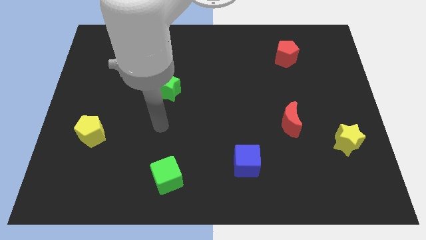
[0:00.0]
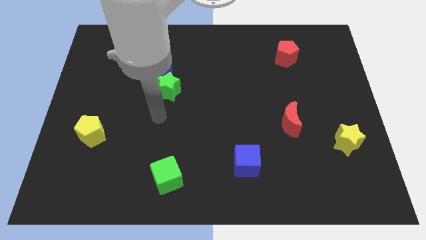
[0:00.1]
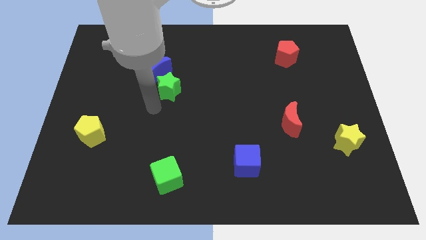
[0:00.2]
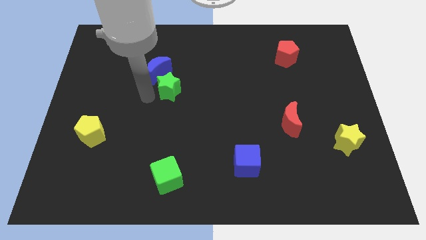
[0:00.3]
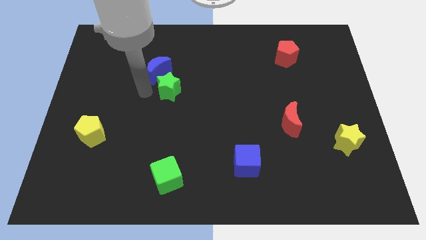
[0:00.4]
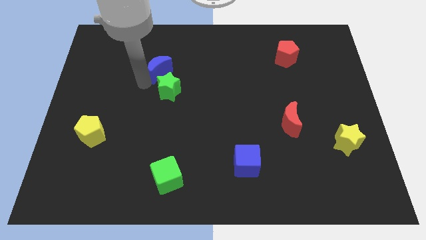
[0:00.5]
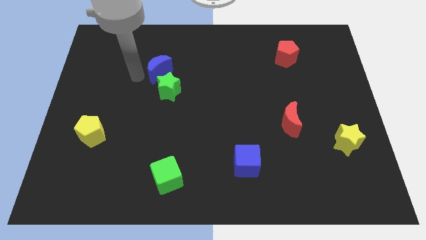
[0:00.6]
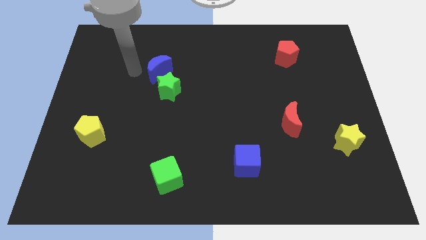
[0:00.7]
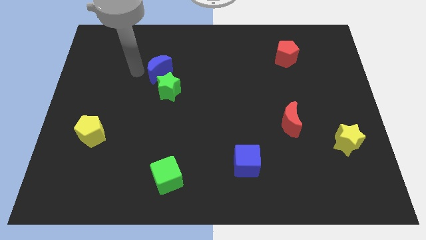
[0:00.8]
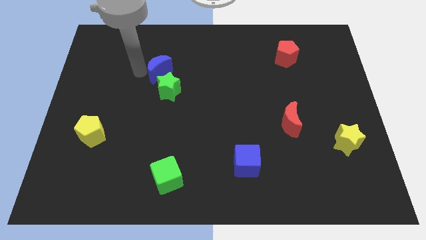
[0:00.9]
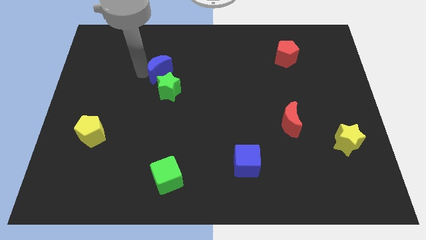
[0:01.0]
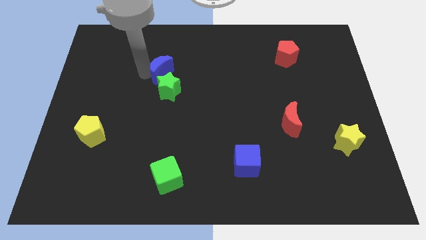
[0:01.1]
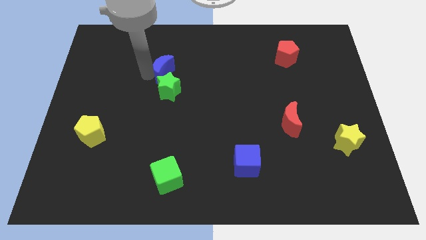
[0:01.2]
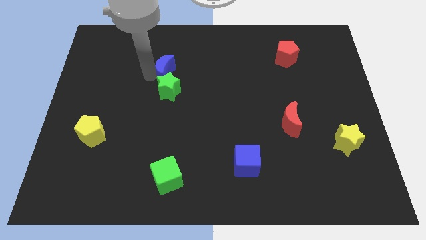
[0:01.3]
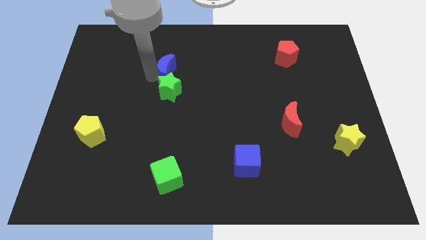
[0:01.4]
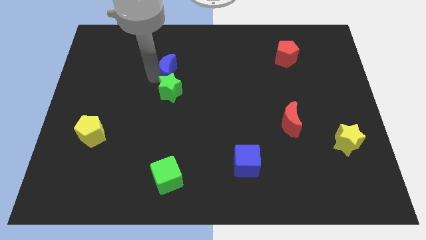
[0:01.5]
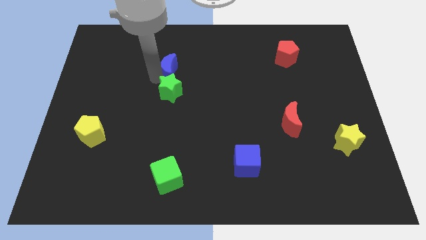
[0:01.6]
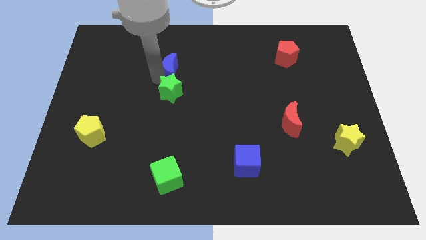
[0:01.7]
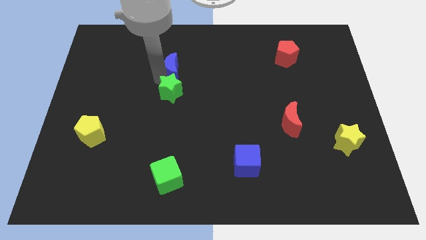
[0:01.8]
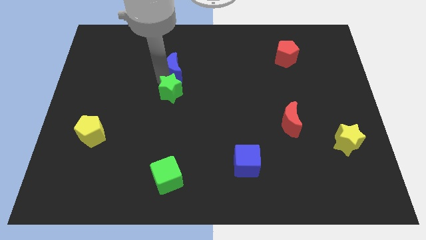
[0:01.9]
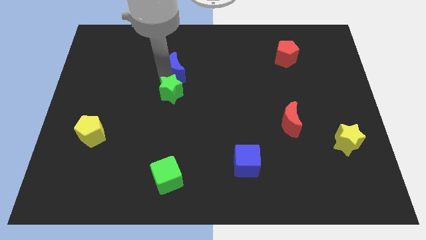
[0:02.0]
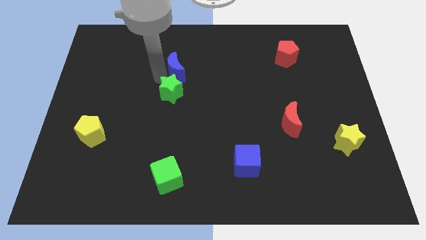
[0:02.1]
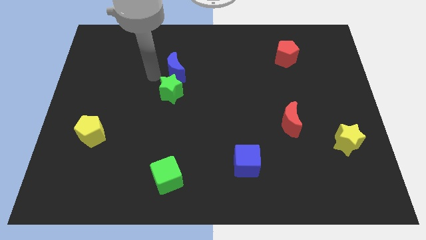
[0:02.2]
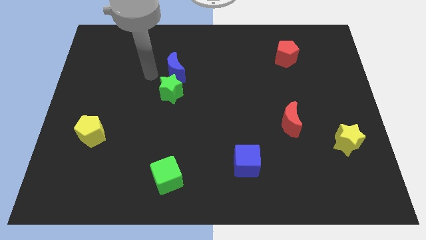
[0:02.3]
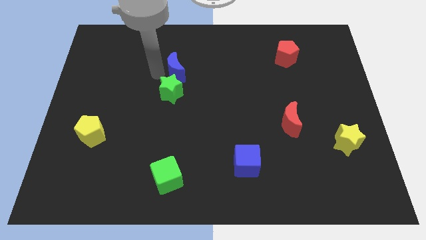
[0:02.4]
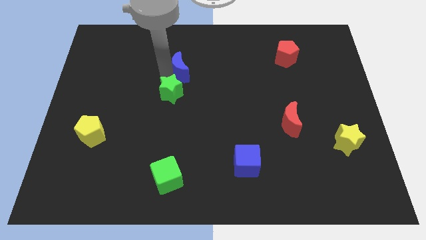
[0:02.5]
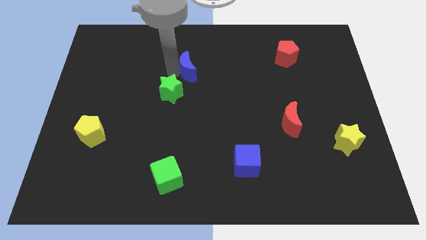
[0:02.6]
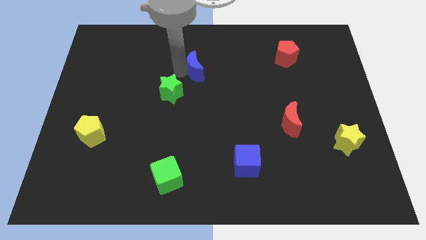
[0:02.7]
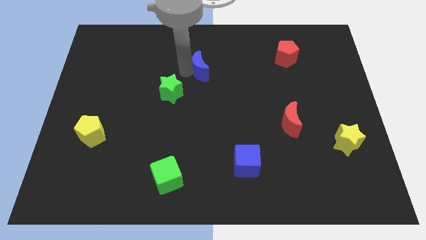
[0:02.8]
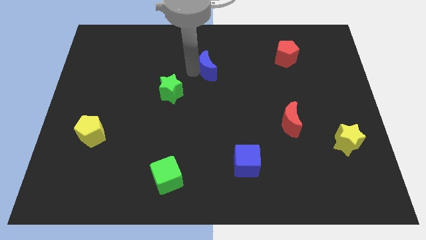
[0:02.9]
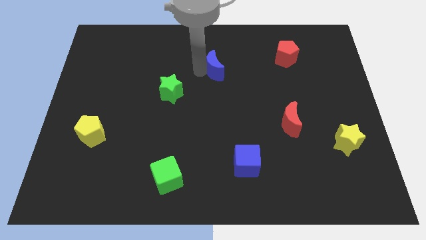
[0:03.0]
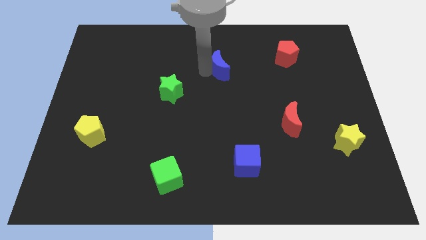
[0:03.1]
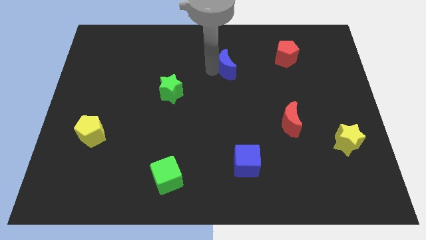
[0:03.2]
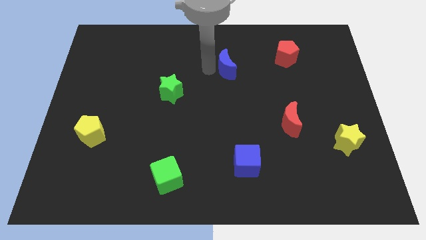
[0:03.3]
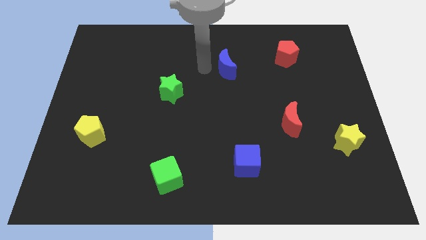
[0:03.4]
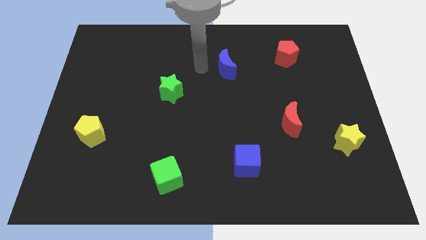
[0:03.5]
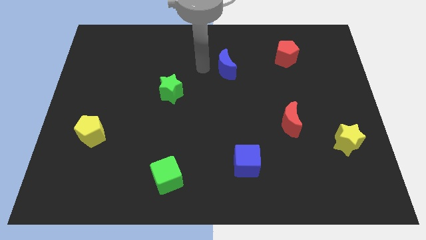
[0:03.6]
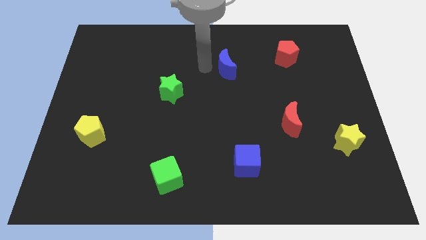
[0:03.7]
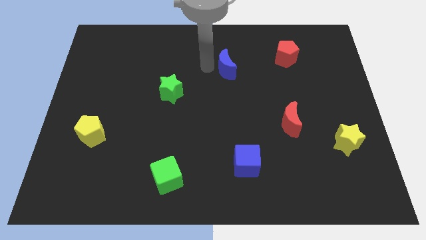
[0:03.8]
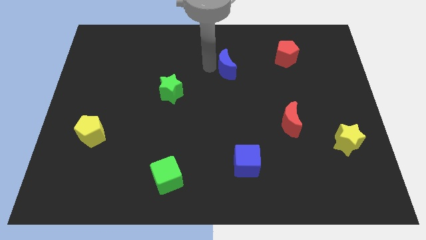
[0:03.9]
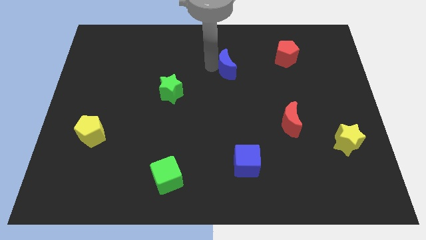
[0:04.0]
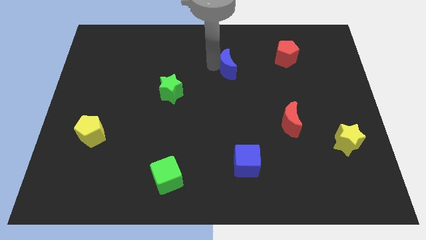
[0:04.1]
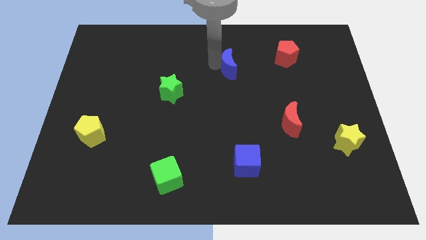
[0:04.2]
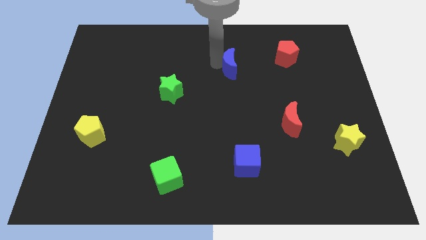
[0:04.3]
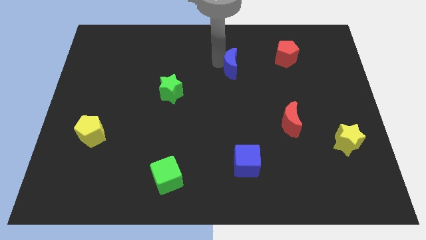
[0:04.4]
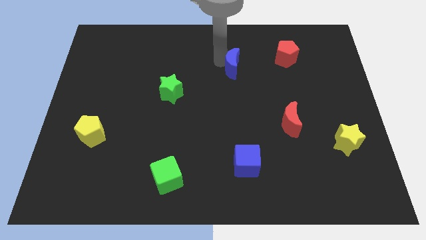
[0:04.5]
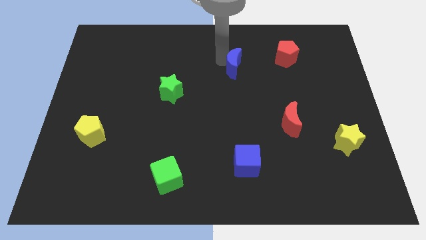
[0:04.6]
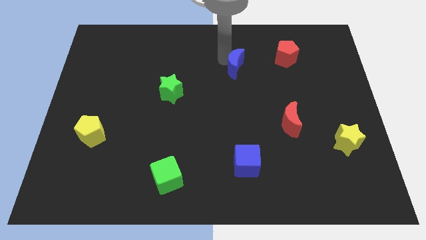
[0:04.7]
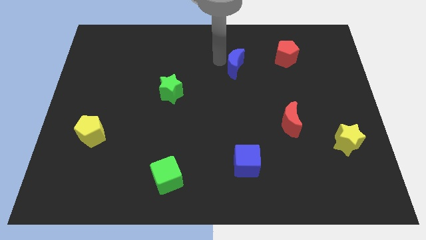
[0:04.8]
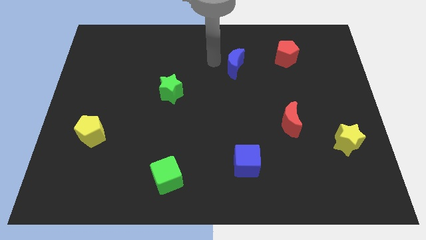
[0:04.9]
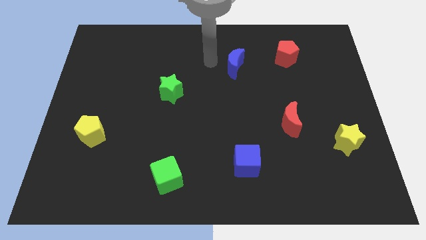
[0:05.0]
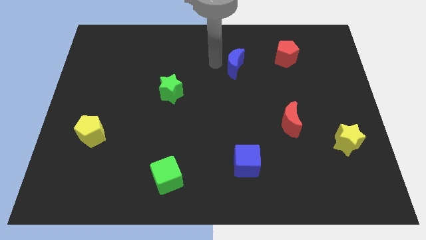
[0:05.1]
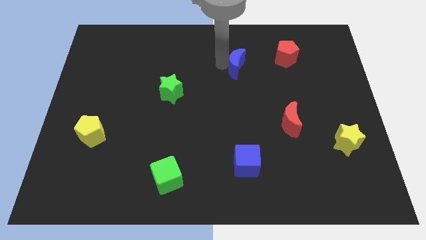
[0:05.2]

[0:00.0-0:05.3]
slide the blue moon right

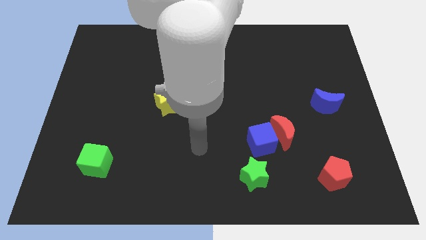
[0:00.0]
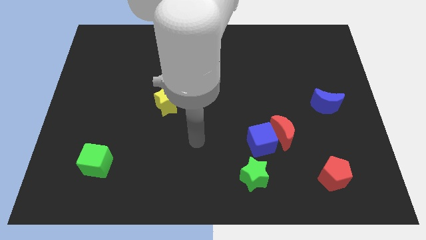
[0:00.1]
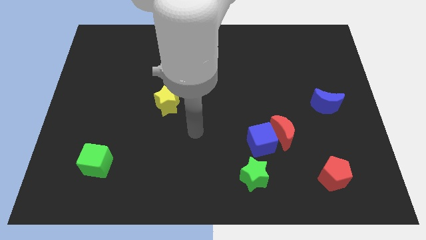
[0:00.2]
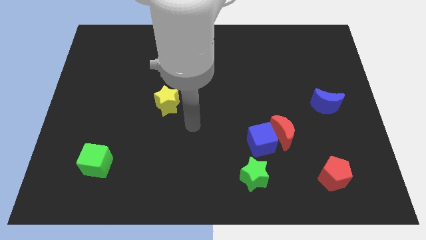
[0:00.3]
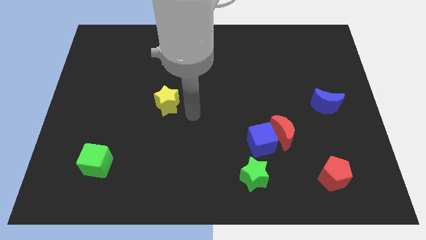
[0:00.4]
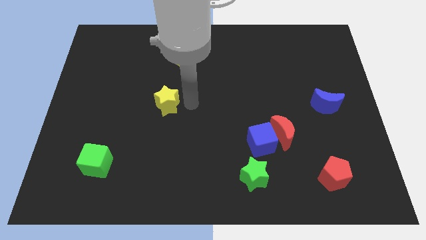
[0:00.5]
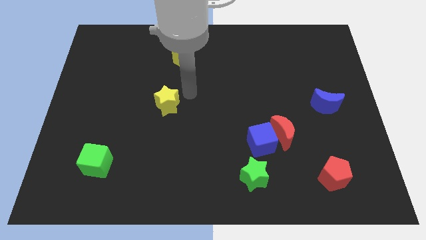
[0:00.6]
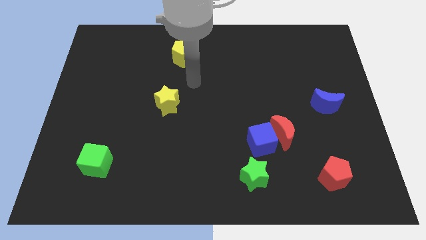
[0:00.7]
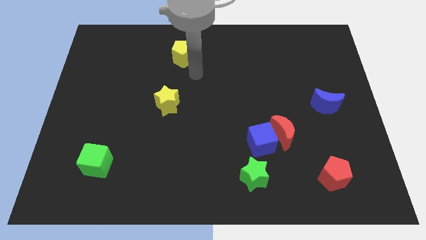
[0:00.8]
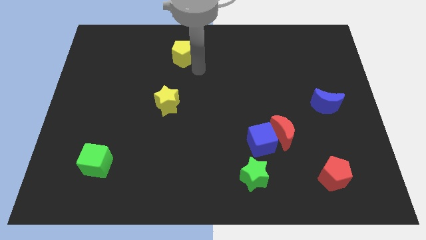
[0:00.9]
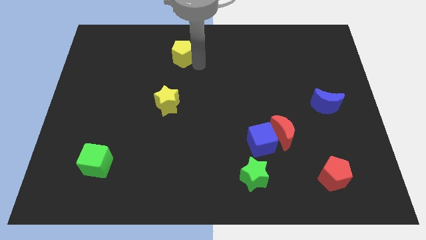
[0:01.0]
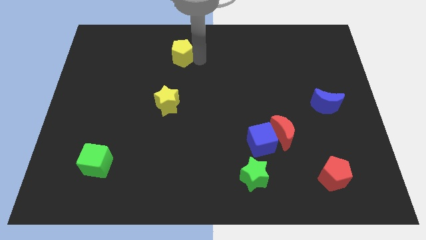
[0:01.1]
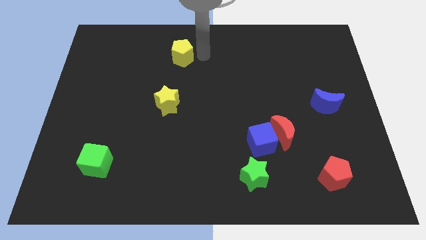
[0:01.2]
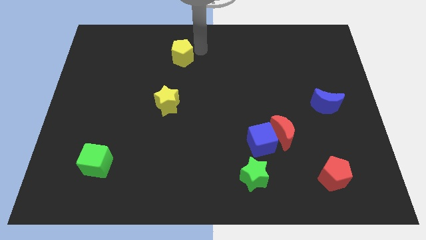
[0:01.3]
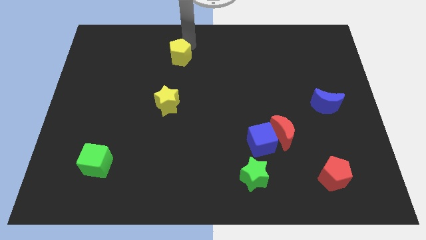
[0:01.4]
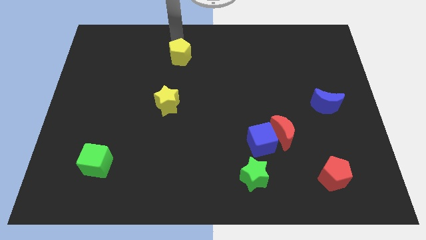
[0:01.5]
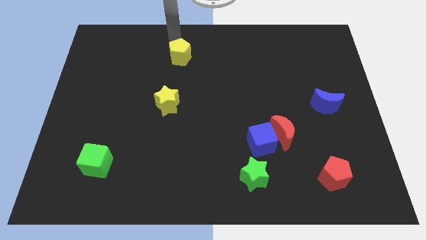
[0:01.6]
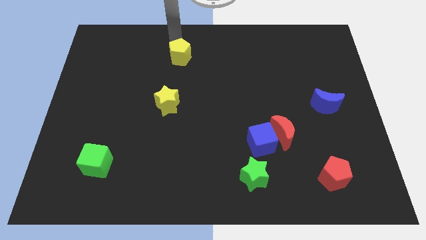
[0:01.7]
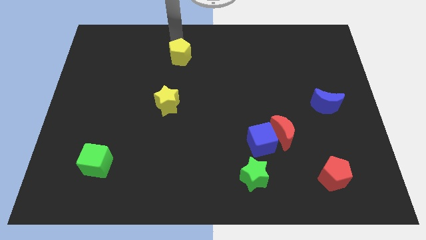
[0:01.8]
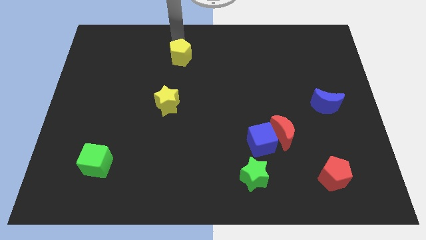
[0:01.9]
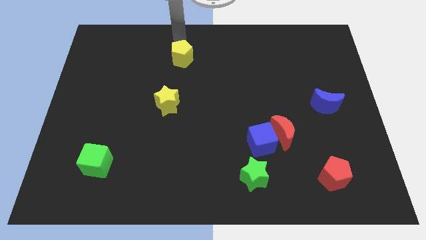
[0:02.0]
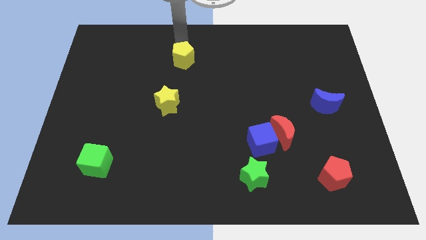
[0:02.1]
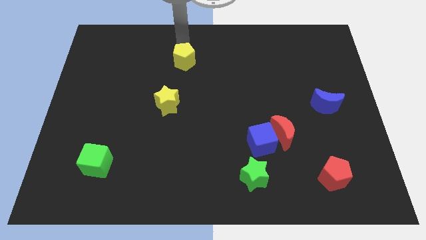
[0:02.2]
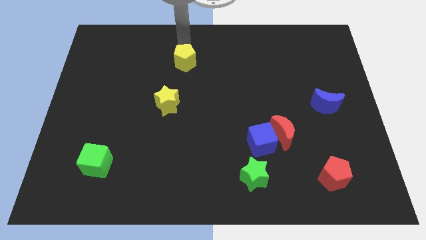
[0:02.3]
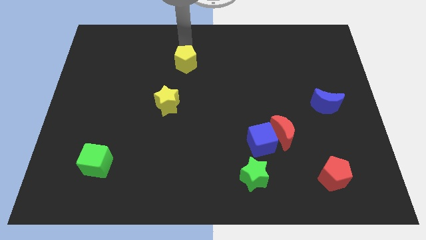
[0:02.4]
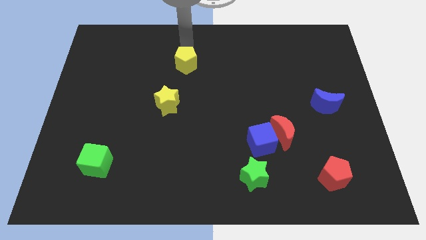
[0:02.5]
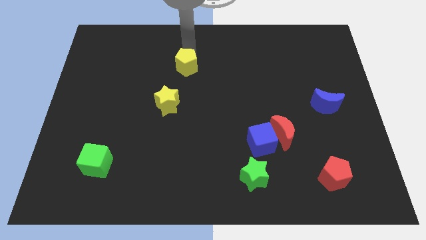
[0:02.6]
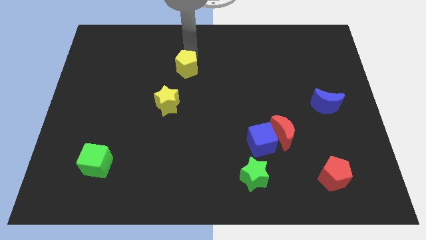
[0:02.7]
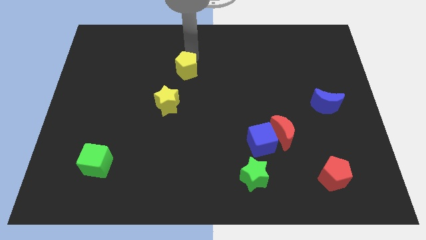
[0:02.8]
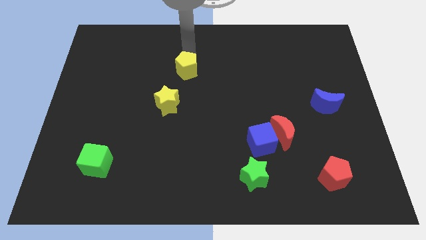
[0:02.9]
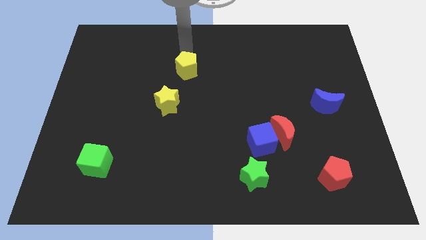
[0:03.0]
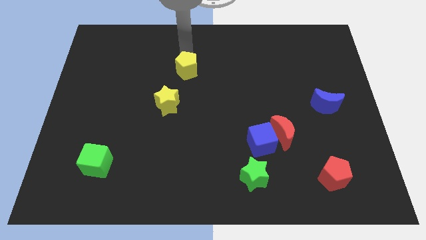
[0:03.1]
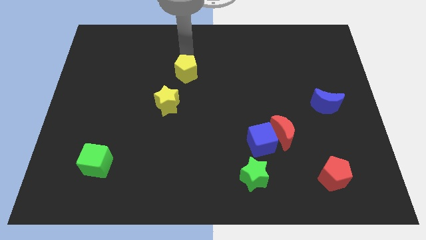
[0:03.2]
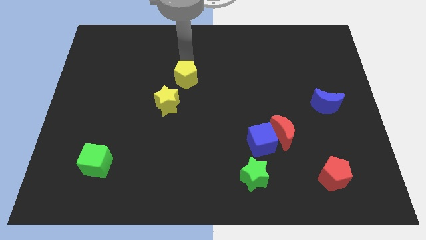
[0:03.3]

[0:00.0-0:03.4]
slightly move the yellow pentagon down
